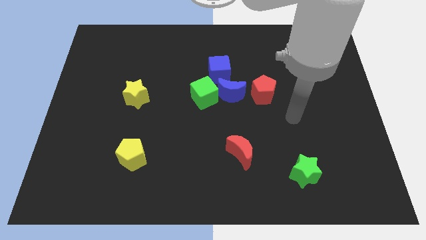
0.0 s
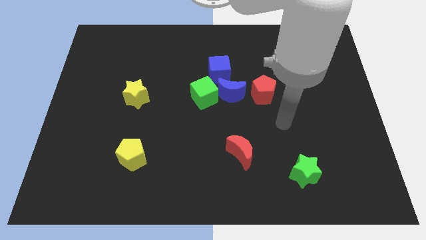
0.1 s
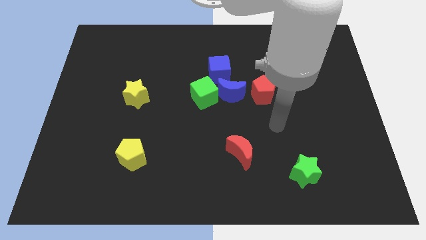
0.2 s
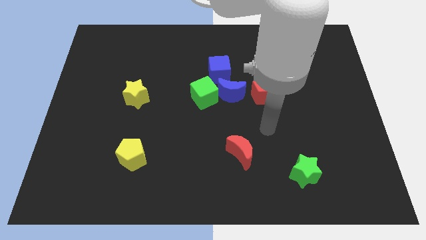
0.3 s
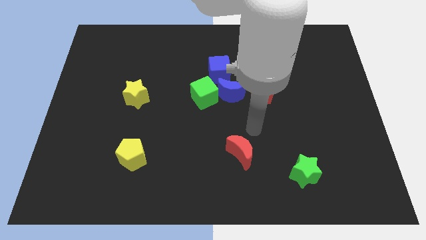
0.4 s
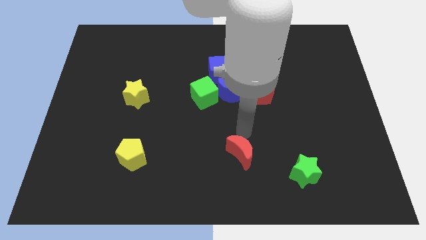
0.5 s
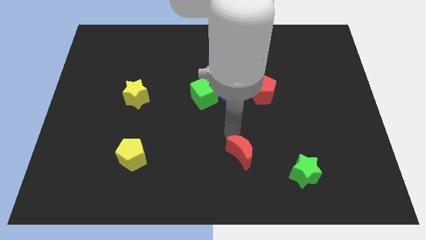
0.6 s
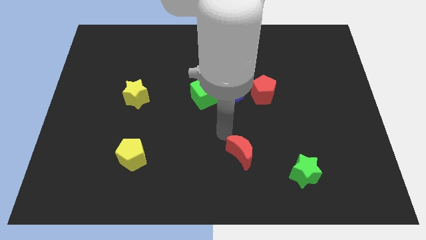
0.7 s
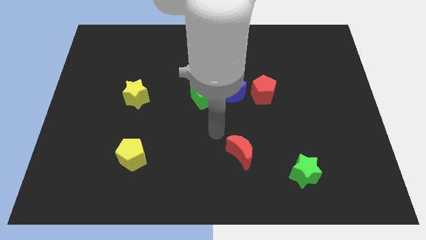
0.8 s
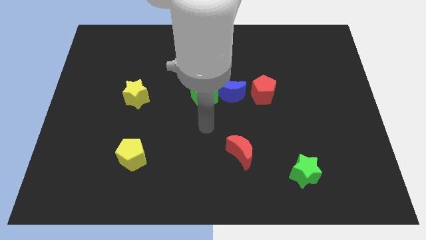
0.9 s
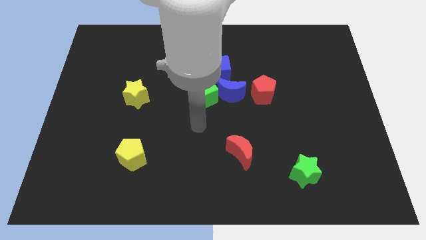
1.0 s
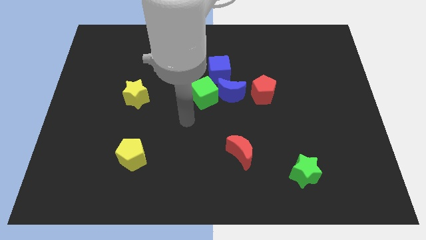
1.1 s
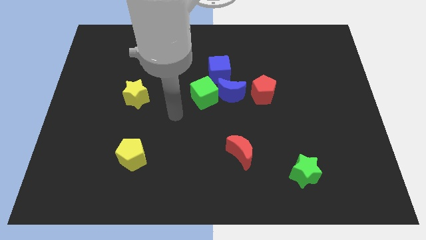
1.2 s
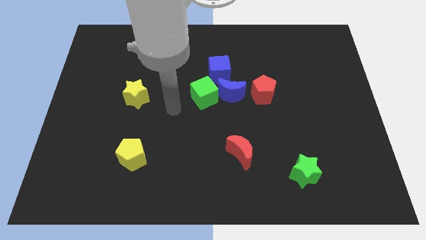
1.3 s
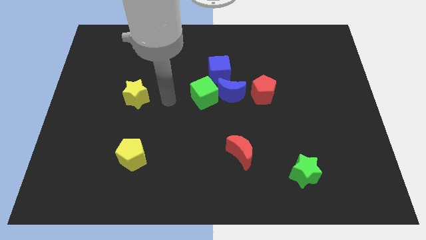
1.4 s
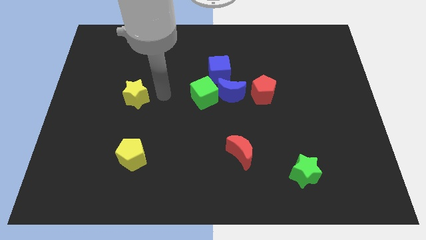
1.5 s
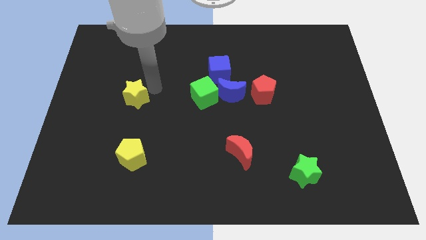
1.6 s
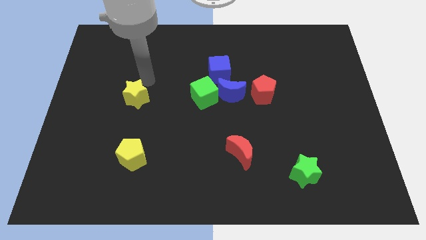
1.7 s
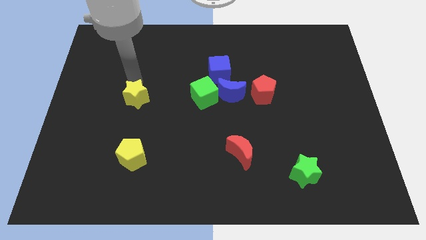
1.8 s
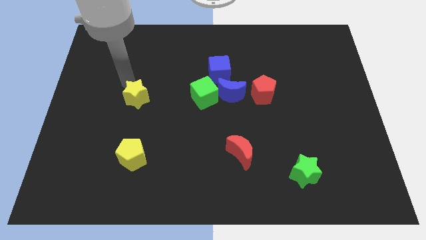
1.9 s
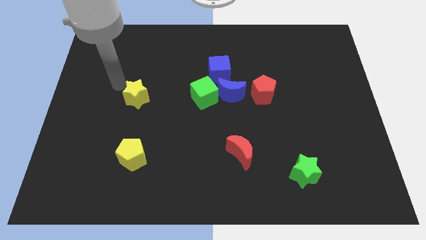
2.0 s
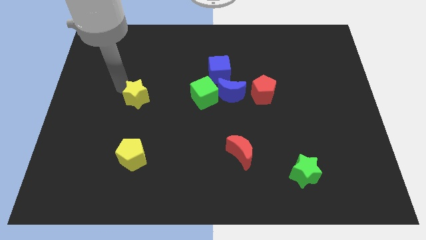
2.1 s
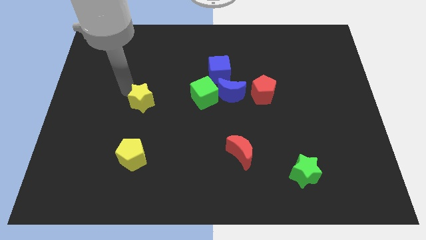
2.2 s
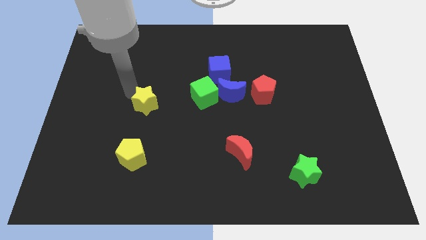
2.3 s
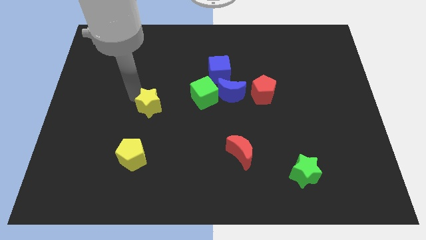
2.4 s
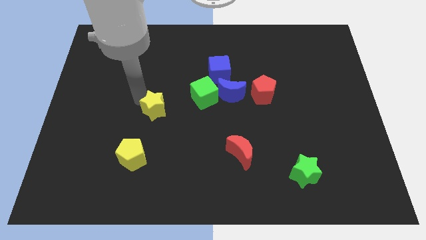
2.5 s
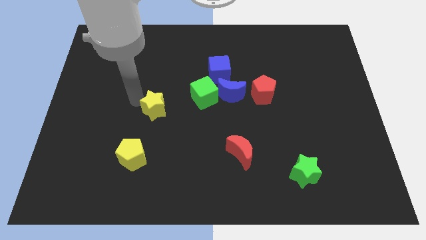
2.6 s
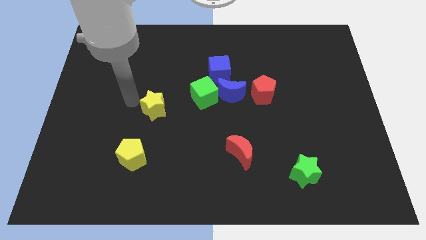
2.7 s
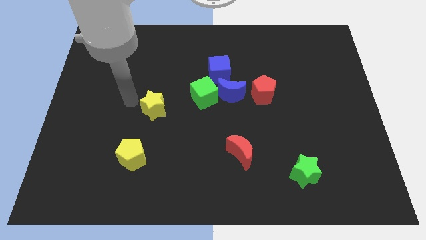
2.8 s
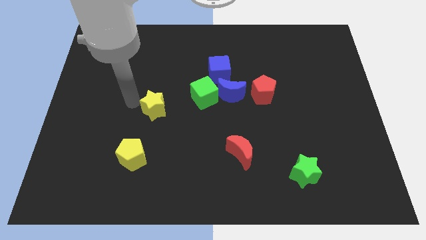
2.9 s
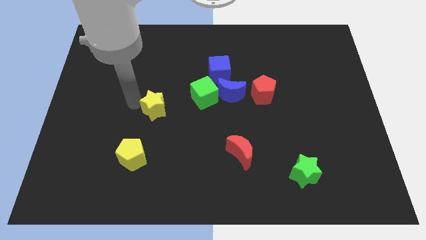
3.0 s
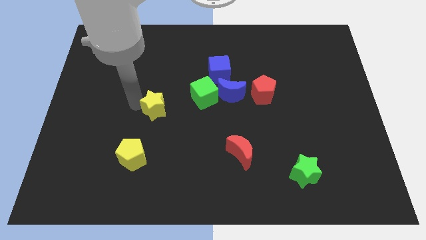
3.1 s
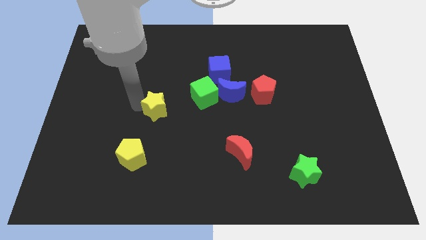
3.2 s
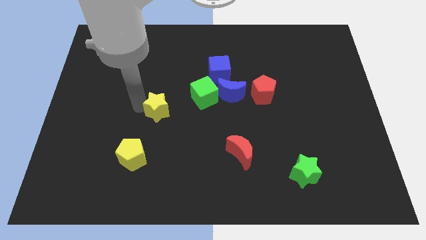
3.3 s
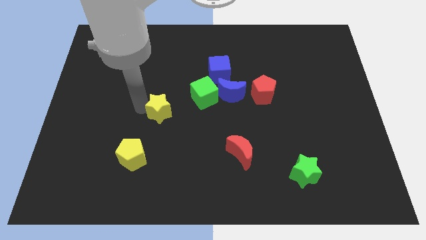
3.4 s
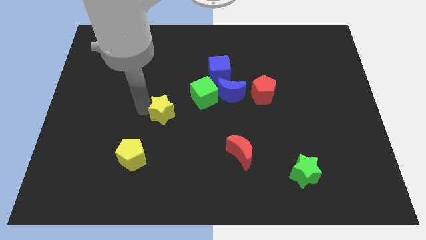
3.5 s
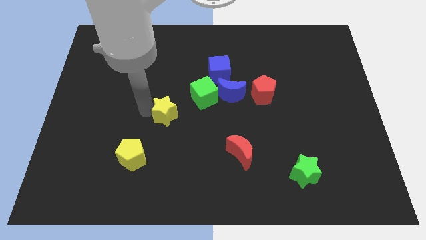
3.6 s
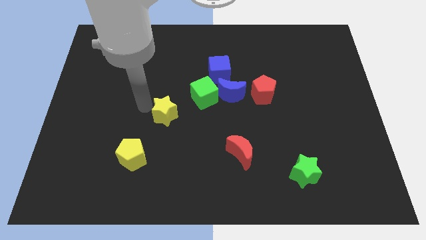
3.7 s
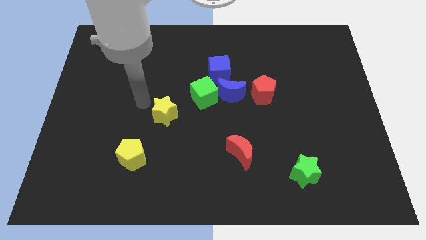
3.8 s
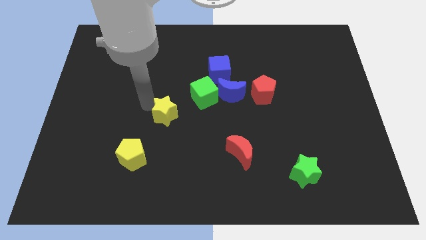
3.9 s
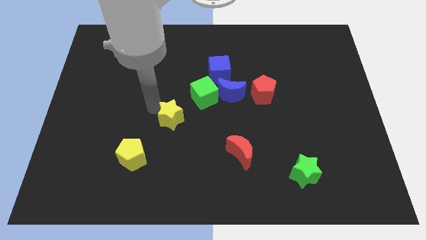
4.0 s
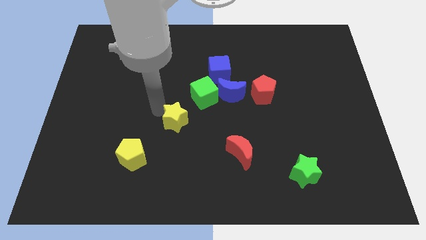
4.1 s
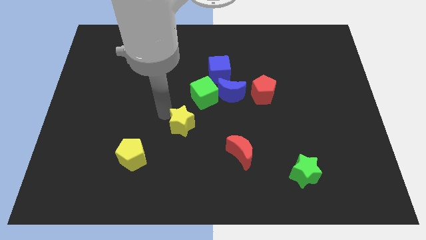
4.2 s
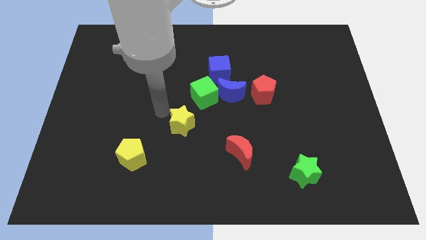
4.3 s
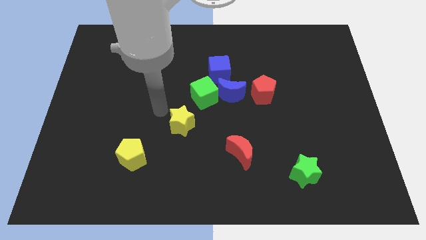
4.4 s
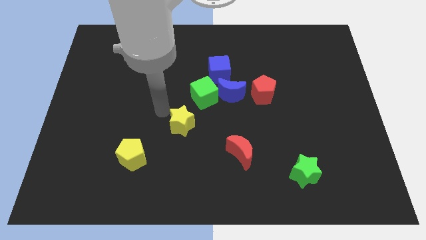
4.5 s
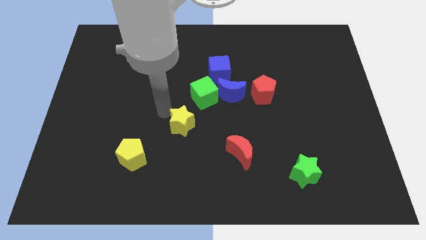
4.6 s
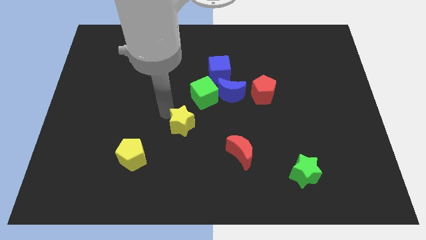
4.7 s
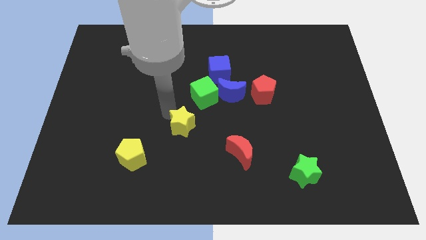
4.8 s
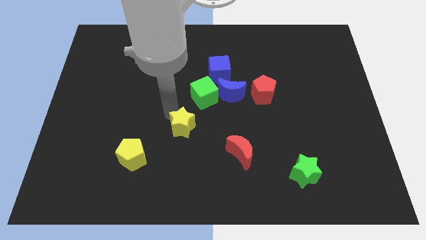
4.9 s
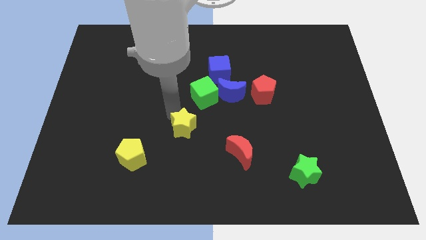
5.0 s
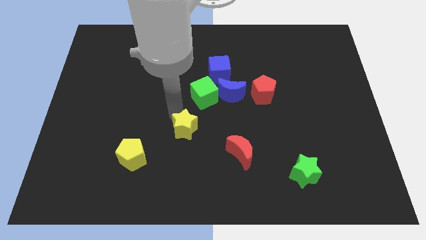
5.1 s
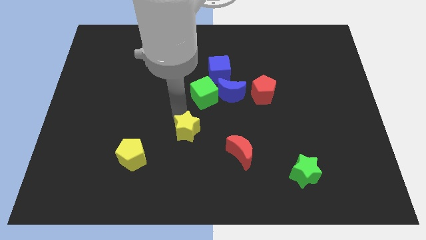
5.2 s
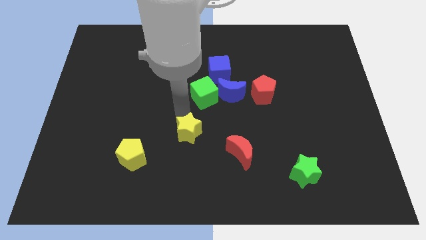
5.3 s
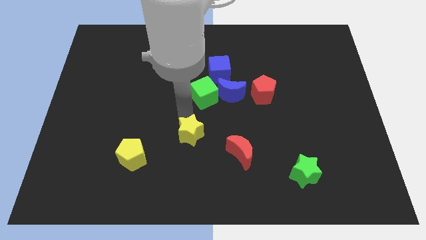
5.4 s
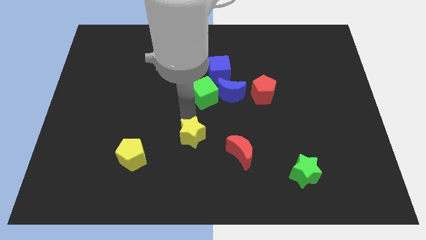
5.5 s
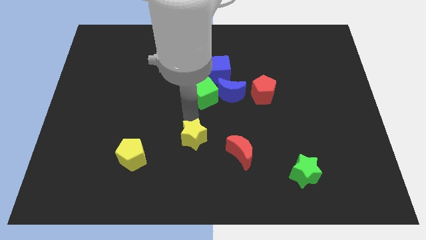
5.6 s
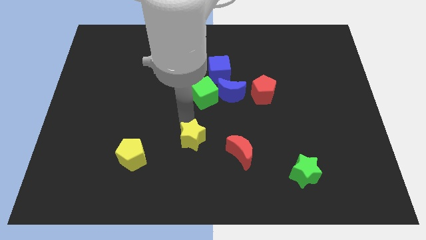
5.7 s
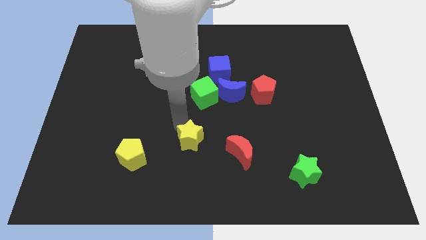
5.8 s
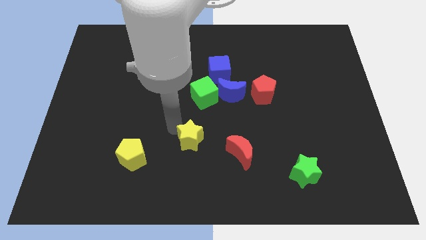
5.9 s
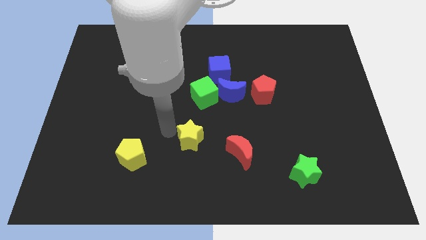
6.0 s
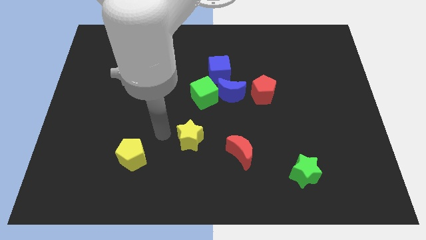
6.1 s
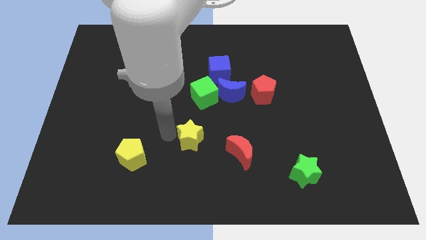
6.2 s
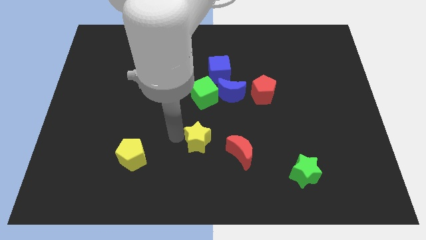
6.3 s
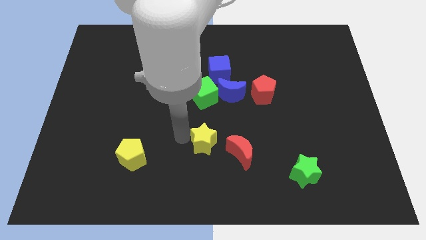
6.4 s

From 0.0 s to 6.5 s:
push the yellow star downwards and then to the right

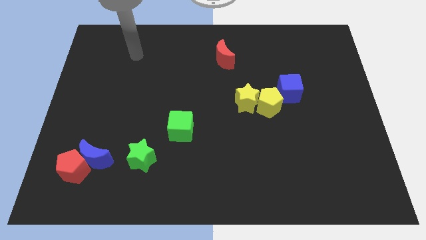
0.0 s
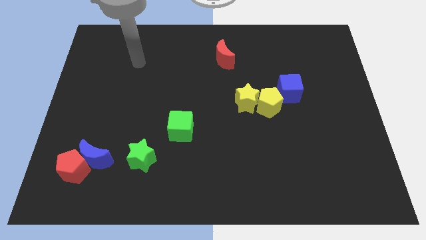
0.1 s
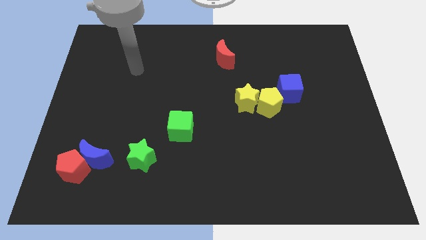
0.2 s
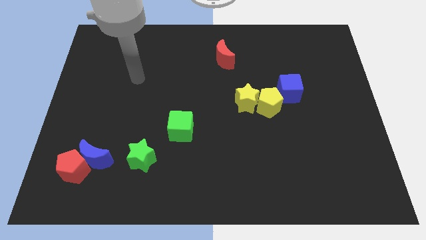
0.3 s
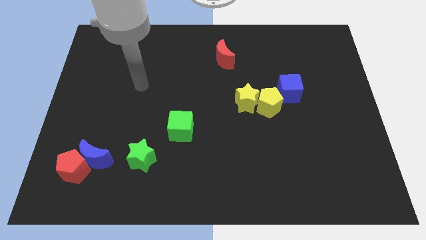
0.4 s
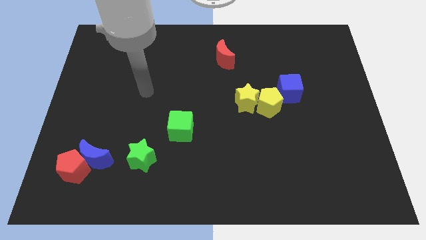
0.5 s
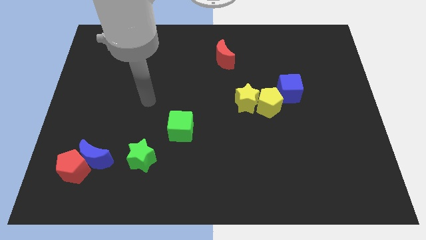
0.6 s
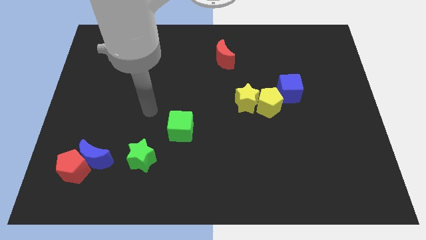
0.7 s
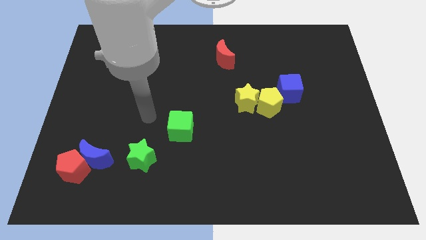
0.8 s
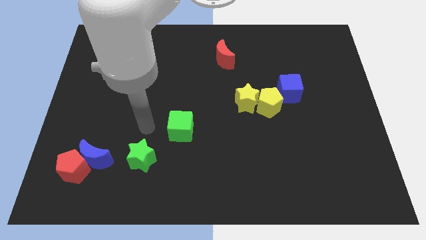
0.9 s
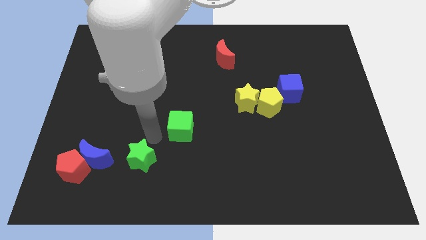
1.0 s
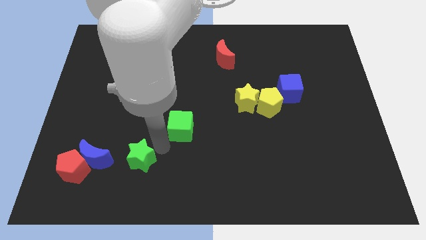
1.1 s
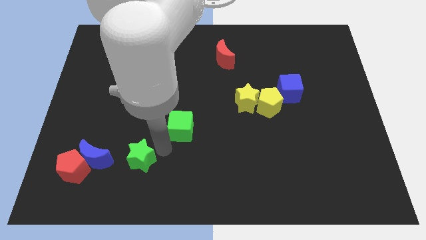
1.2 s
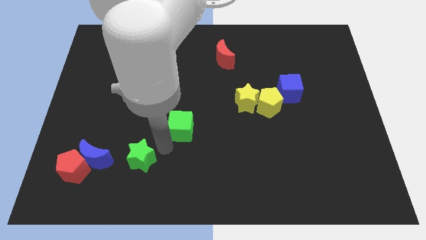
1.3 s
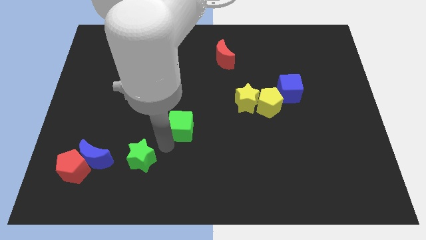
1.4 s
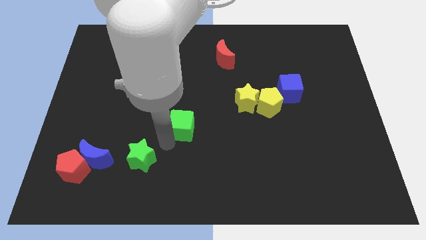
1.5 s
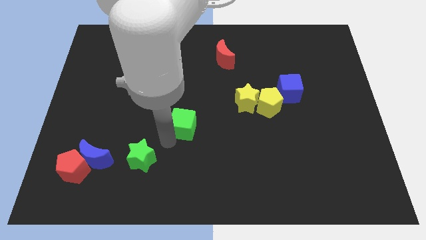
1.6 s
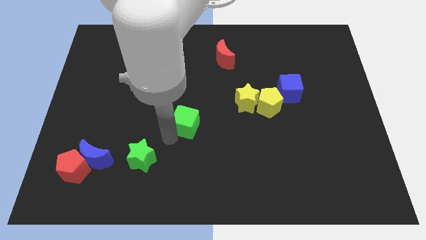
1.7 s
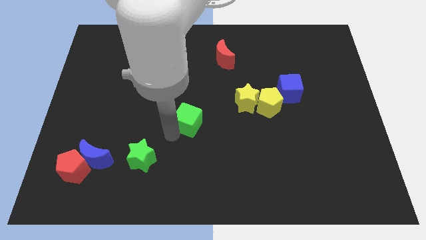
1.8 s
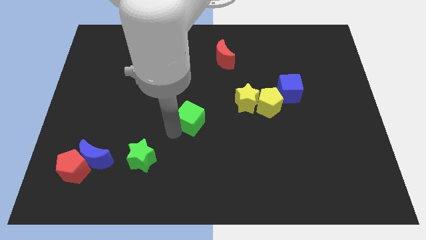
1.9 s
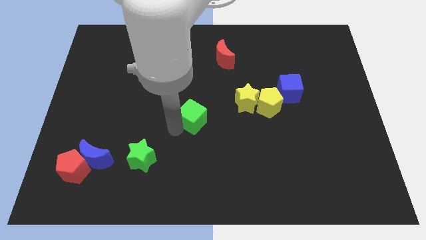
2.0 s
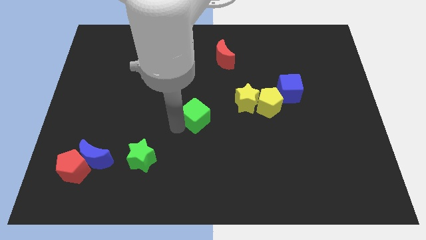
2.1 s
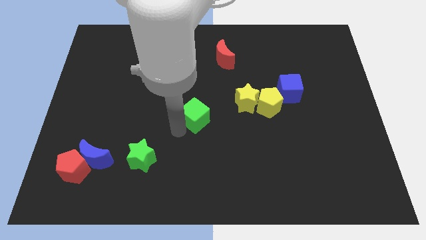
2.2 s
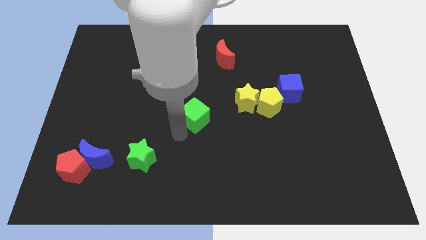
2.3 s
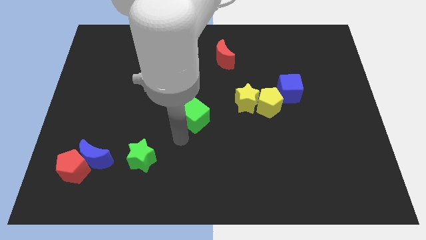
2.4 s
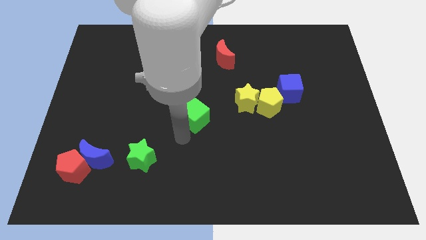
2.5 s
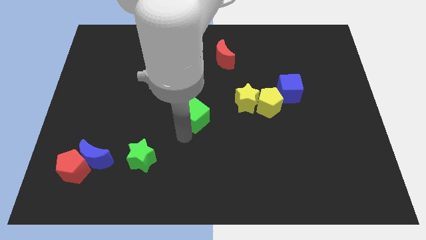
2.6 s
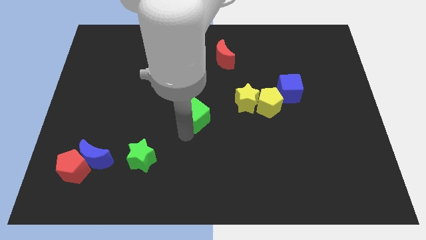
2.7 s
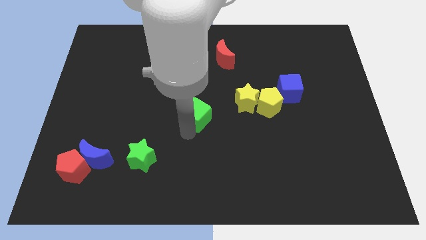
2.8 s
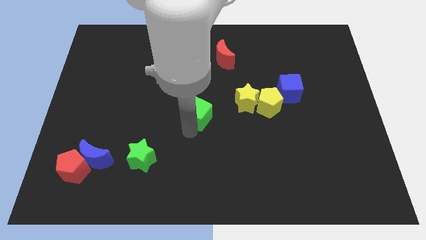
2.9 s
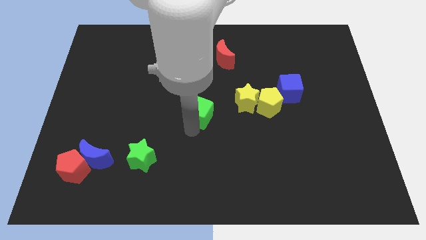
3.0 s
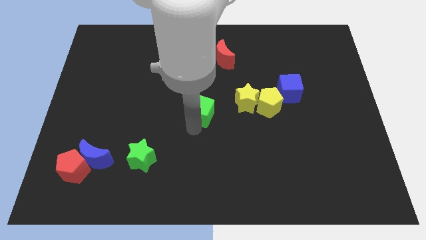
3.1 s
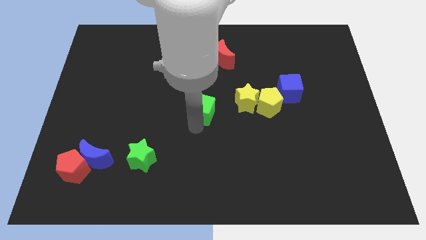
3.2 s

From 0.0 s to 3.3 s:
slide the green cube upwards and then to the right a little bit
